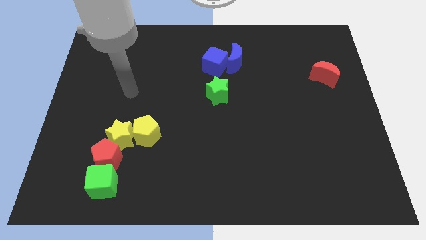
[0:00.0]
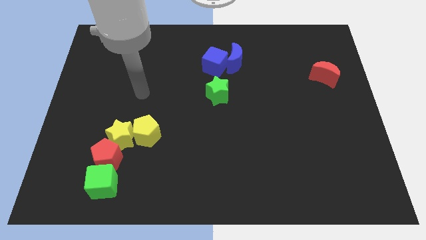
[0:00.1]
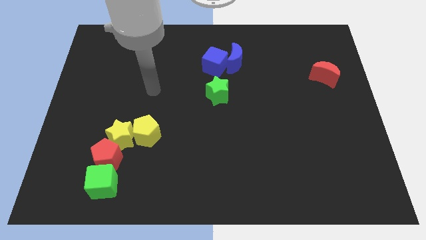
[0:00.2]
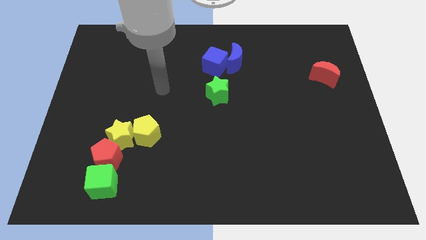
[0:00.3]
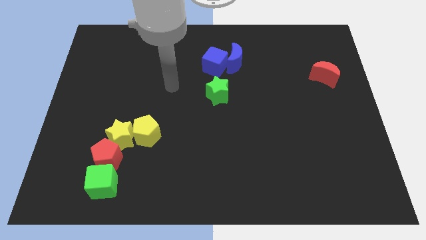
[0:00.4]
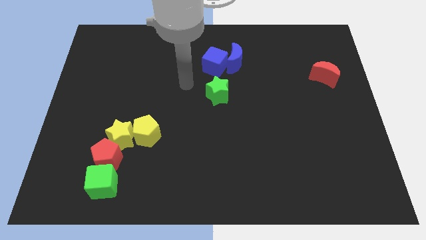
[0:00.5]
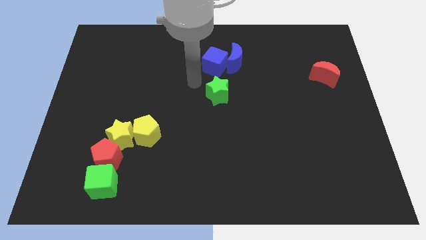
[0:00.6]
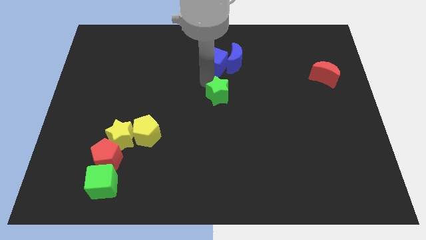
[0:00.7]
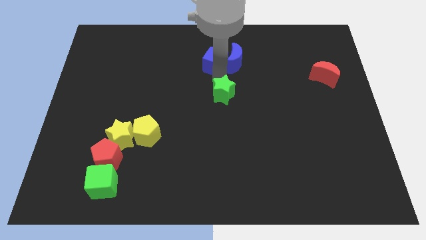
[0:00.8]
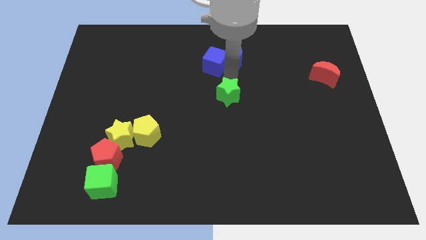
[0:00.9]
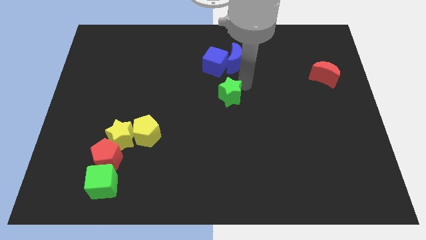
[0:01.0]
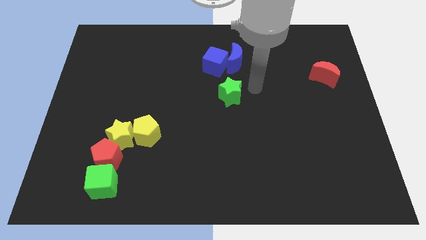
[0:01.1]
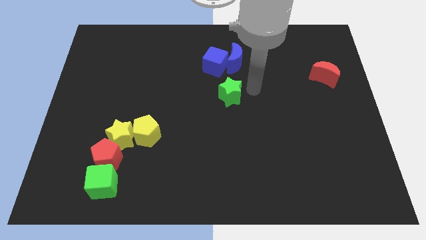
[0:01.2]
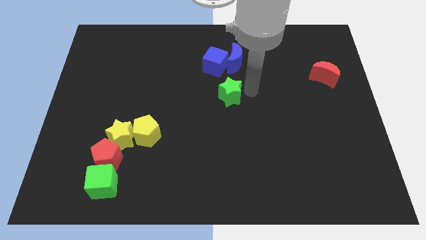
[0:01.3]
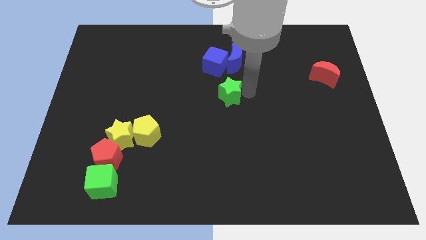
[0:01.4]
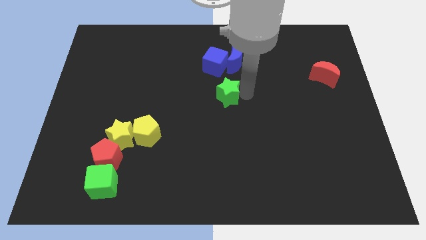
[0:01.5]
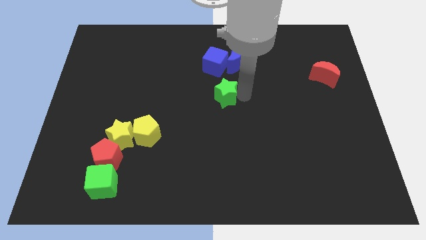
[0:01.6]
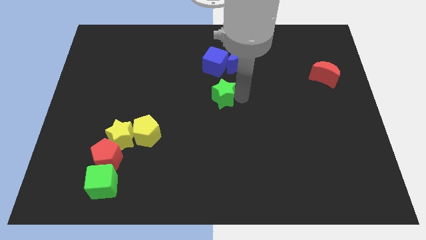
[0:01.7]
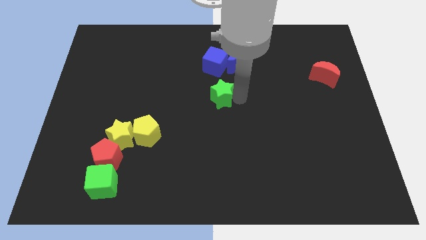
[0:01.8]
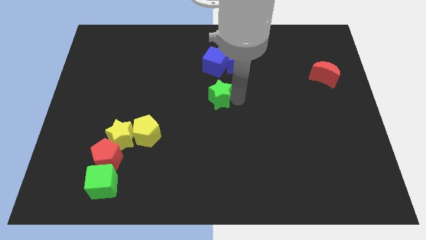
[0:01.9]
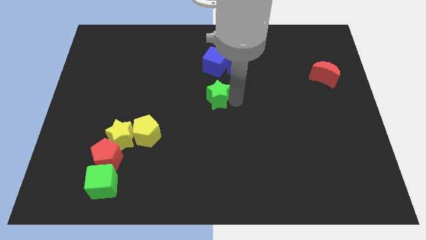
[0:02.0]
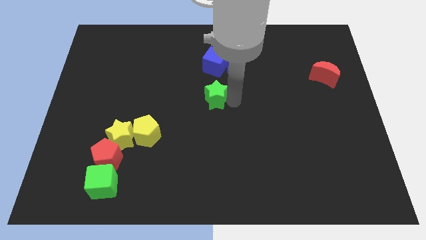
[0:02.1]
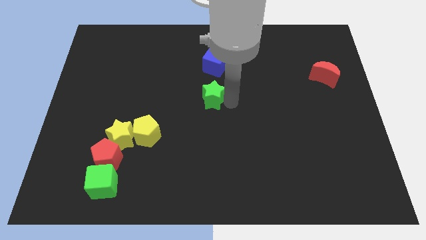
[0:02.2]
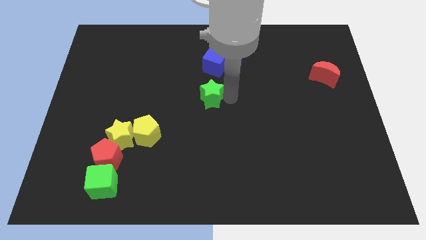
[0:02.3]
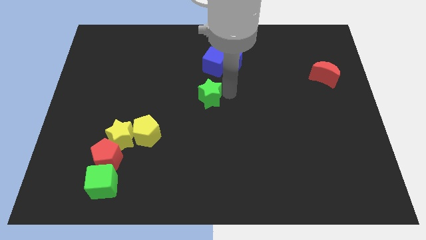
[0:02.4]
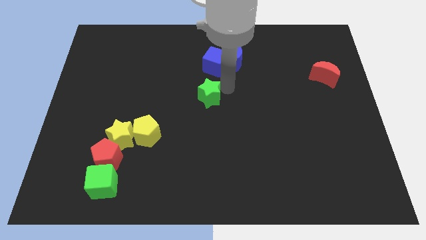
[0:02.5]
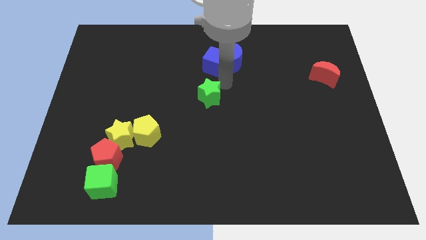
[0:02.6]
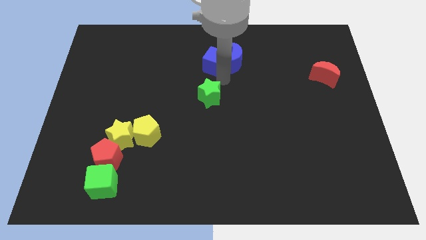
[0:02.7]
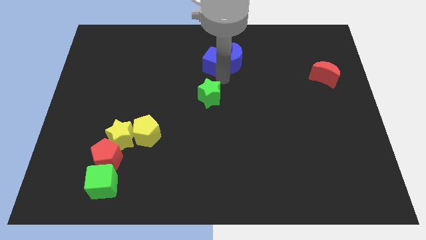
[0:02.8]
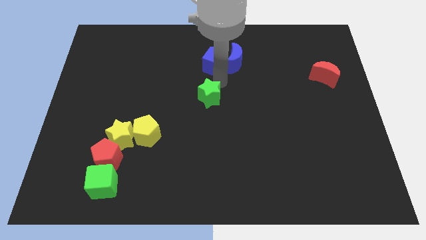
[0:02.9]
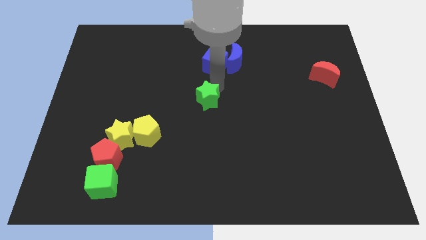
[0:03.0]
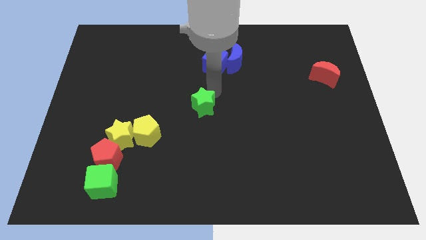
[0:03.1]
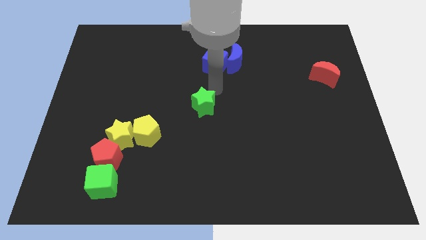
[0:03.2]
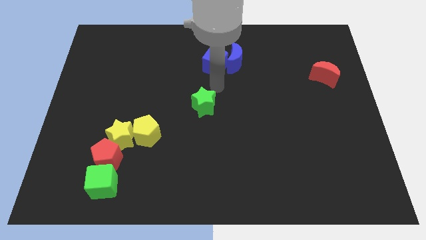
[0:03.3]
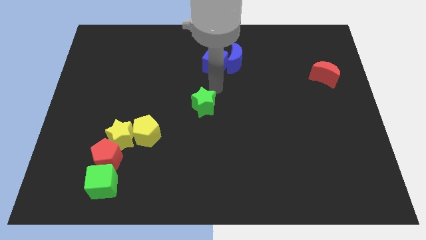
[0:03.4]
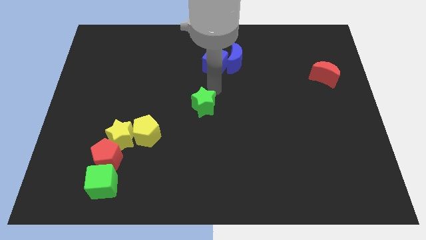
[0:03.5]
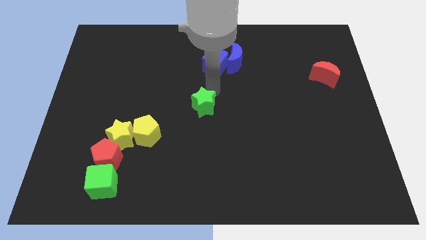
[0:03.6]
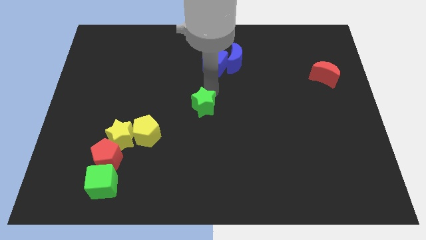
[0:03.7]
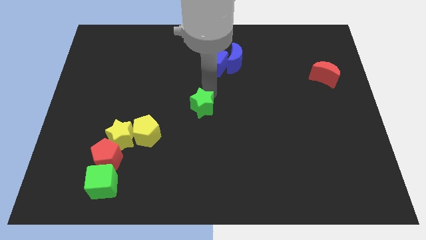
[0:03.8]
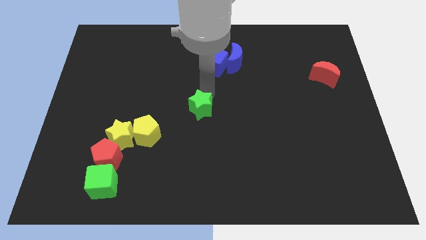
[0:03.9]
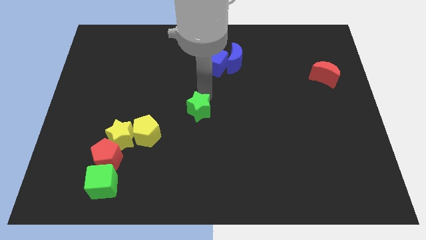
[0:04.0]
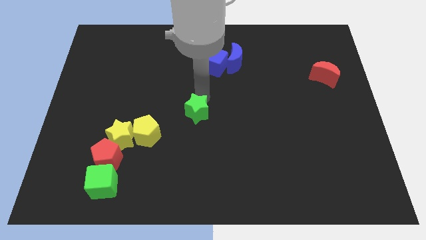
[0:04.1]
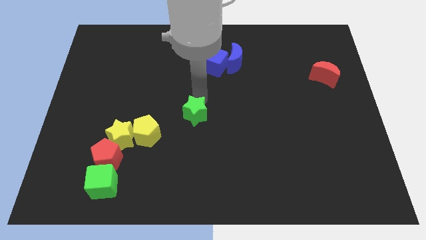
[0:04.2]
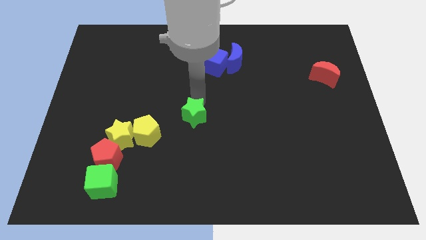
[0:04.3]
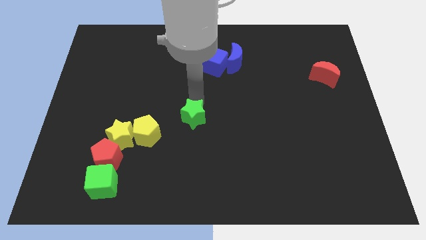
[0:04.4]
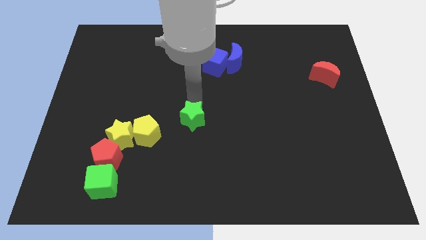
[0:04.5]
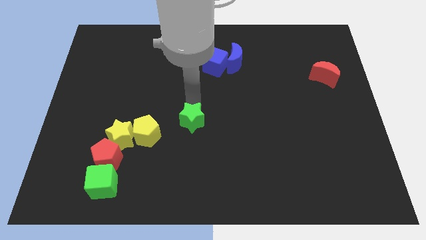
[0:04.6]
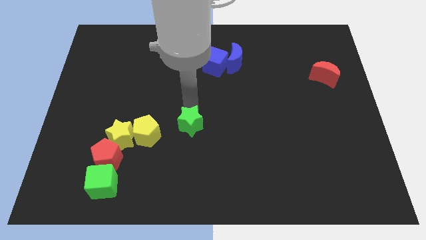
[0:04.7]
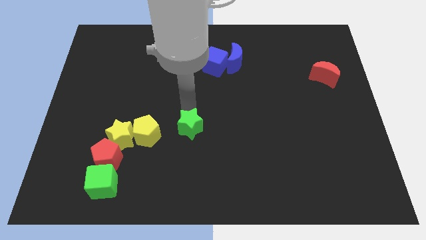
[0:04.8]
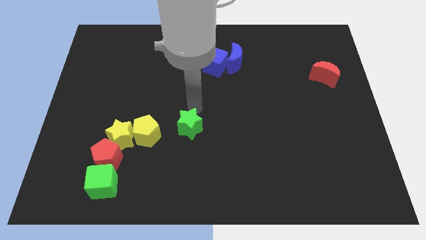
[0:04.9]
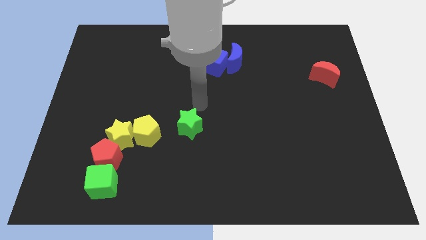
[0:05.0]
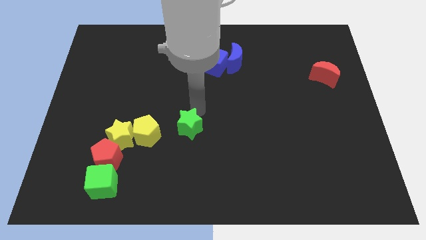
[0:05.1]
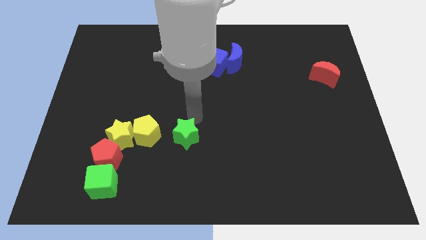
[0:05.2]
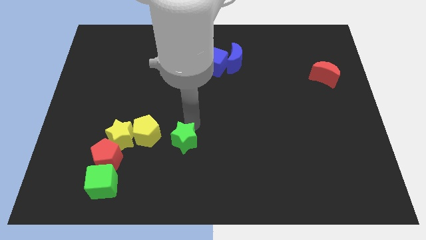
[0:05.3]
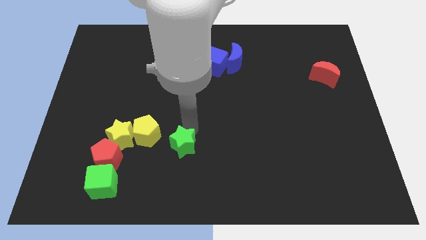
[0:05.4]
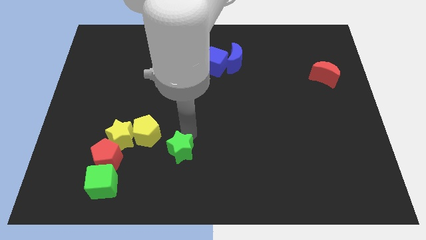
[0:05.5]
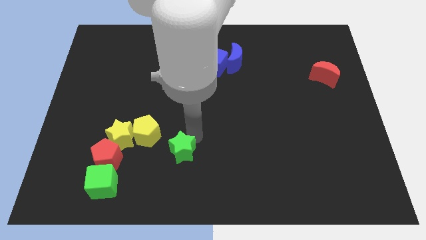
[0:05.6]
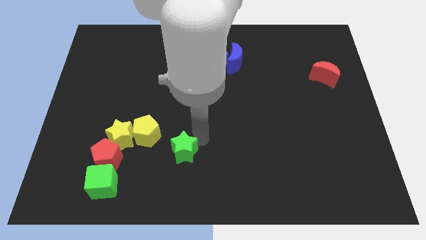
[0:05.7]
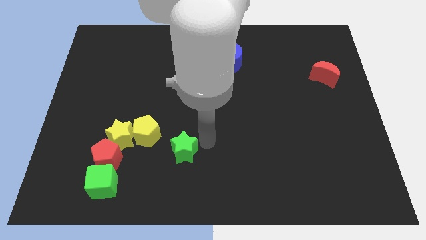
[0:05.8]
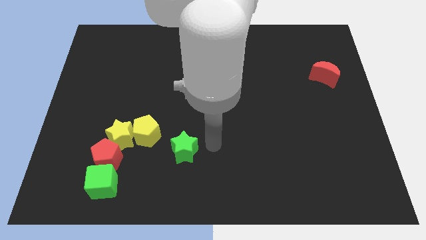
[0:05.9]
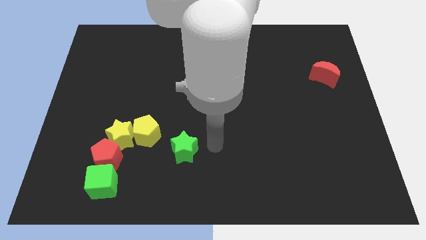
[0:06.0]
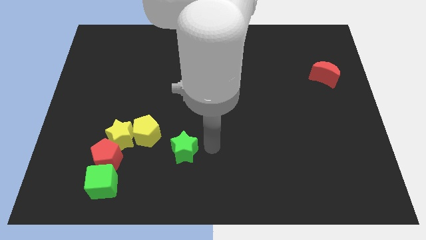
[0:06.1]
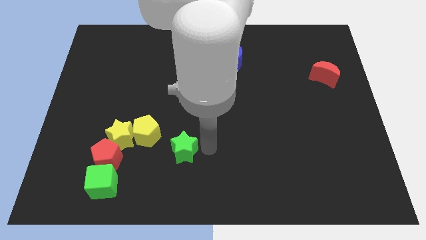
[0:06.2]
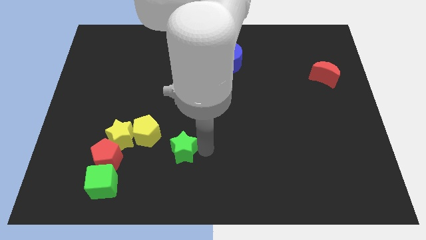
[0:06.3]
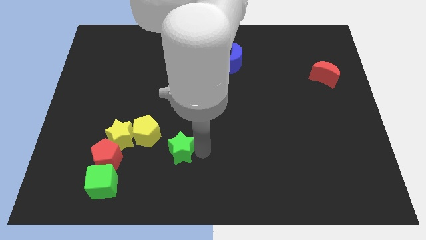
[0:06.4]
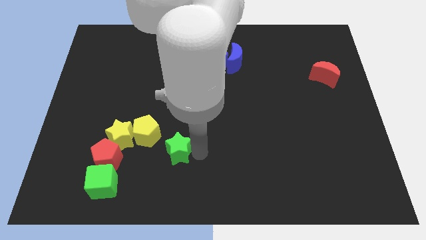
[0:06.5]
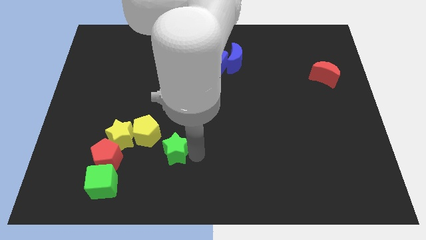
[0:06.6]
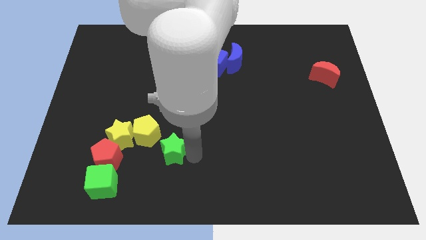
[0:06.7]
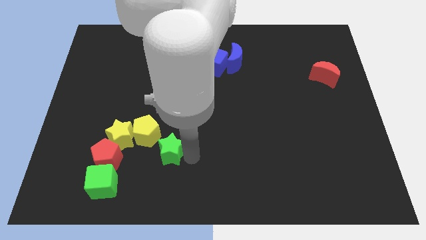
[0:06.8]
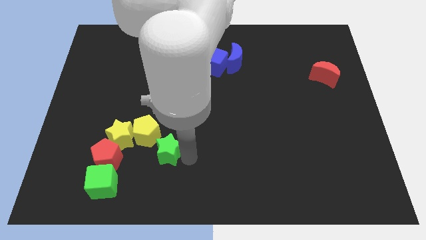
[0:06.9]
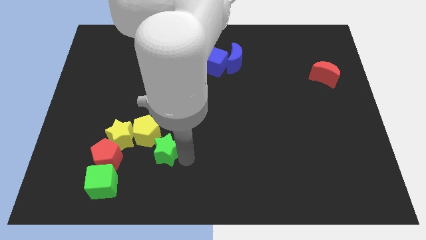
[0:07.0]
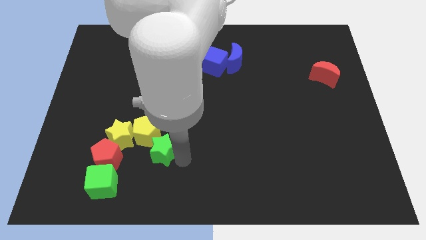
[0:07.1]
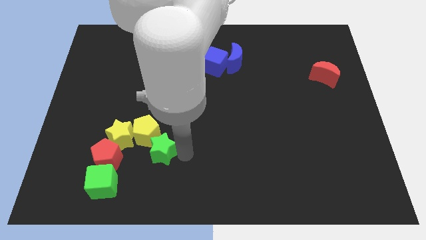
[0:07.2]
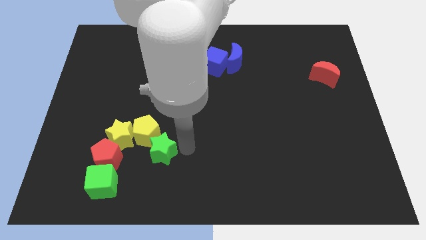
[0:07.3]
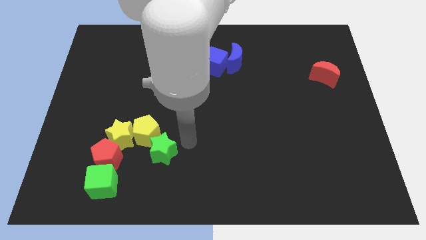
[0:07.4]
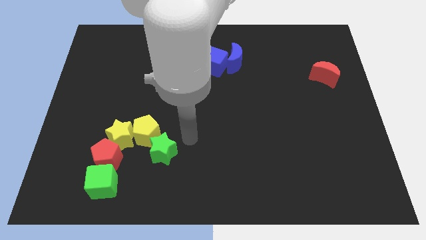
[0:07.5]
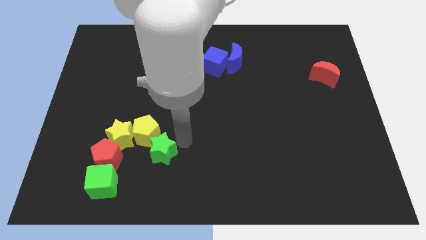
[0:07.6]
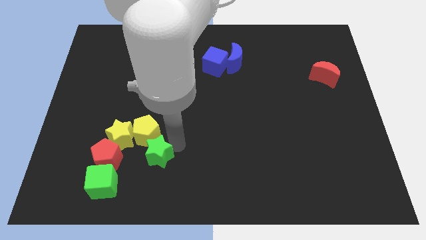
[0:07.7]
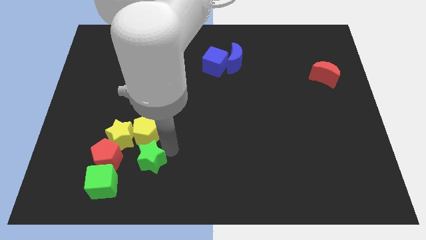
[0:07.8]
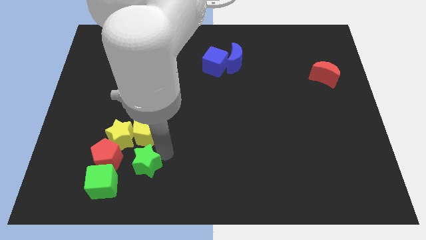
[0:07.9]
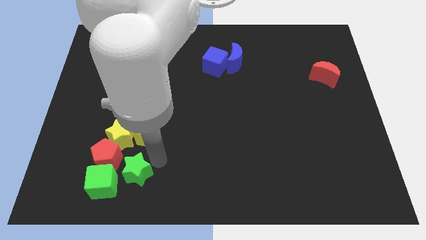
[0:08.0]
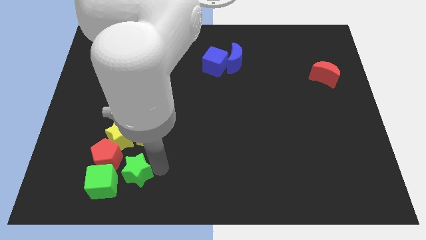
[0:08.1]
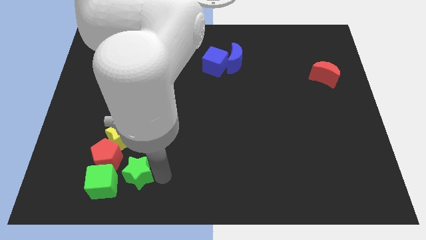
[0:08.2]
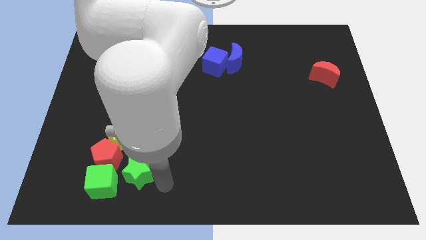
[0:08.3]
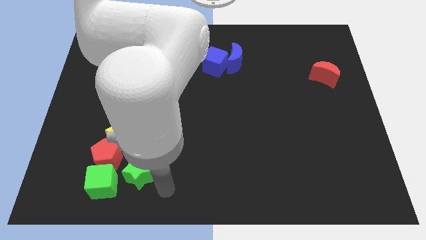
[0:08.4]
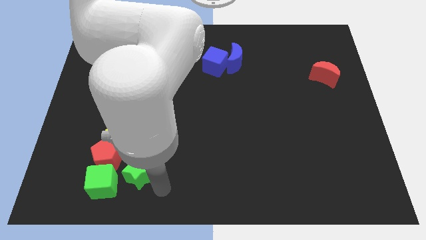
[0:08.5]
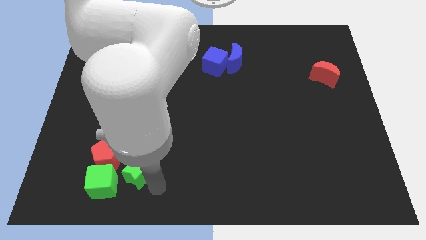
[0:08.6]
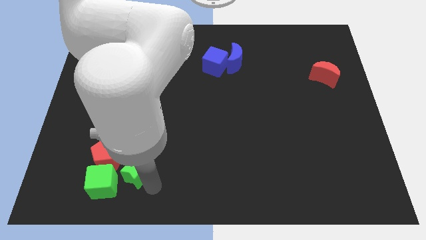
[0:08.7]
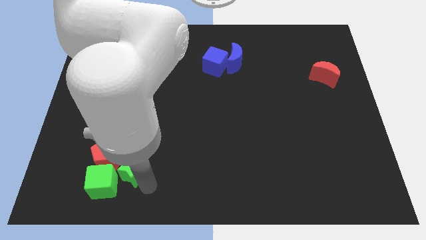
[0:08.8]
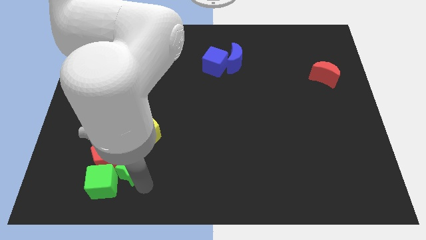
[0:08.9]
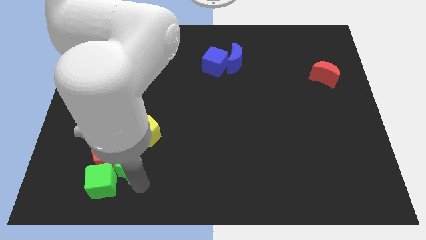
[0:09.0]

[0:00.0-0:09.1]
push the green star next to the red pentagon
